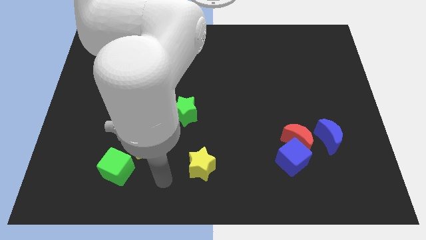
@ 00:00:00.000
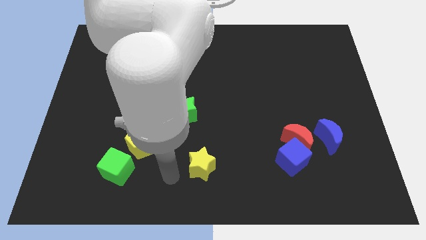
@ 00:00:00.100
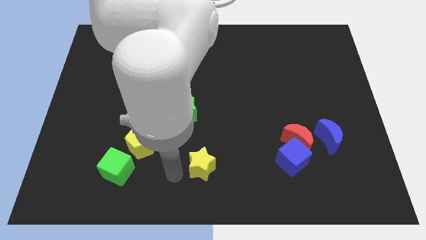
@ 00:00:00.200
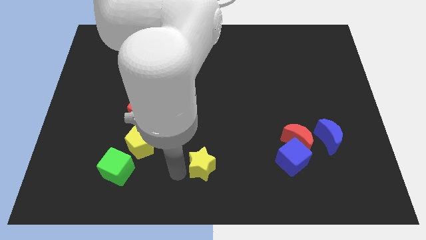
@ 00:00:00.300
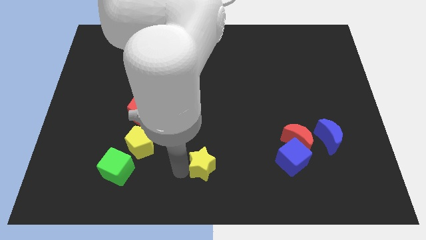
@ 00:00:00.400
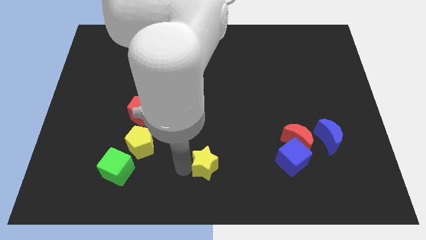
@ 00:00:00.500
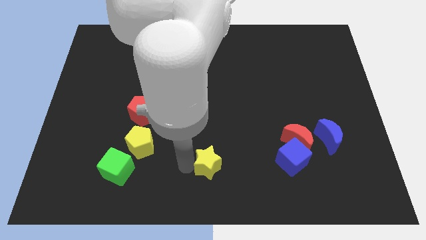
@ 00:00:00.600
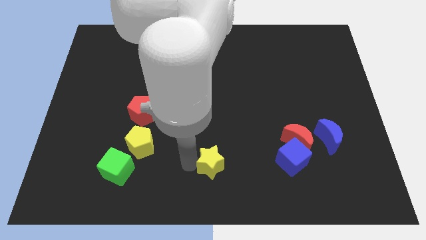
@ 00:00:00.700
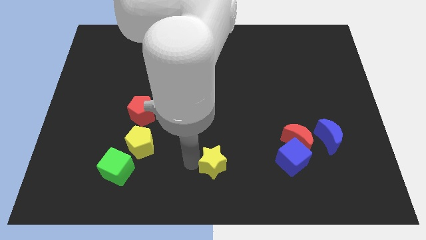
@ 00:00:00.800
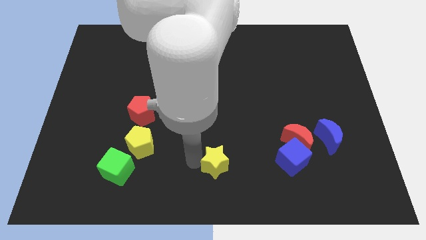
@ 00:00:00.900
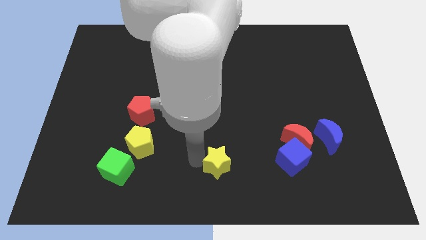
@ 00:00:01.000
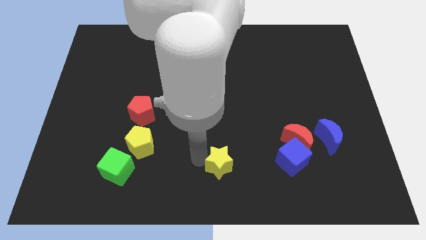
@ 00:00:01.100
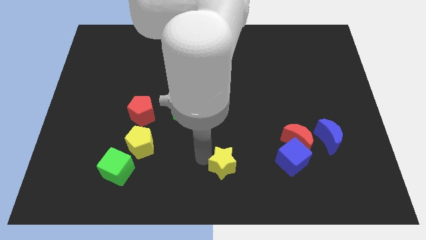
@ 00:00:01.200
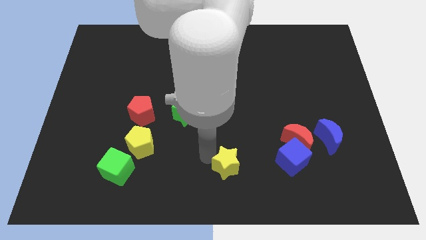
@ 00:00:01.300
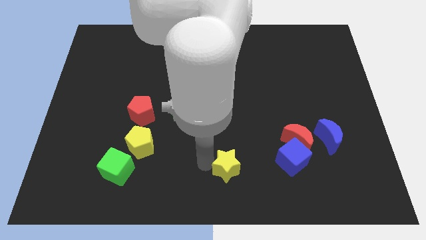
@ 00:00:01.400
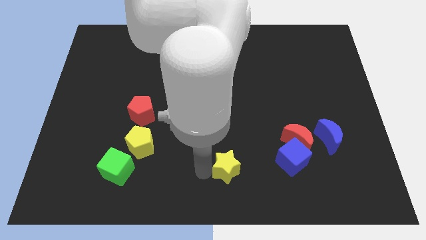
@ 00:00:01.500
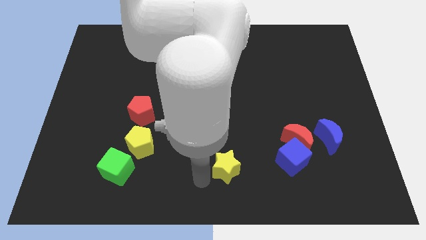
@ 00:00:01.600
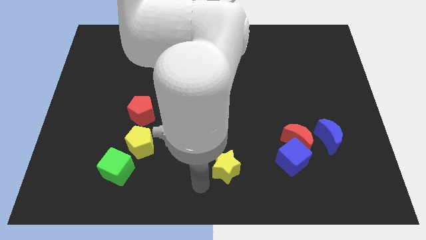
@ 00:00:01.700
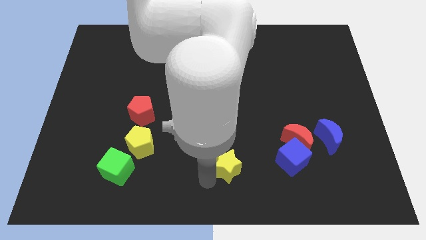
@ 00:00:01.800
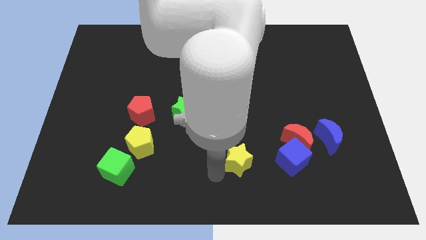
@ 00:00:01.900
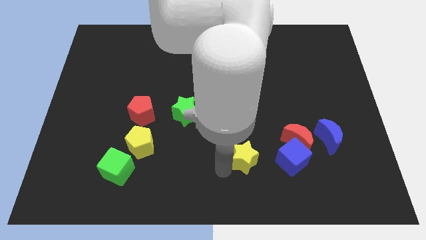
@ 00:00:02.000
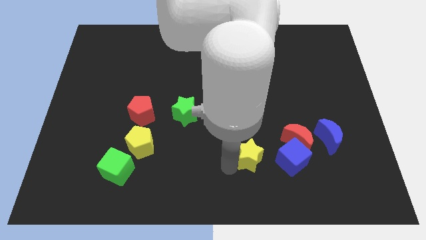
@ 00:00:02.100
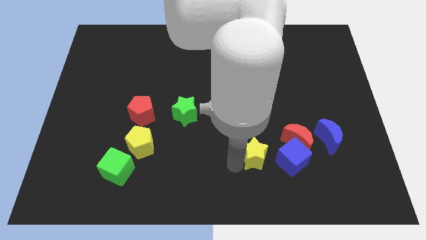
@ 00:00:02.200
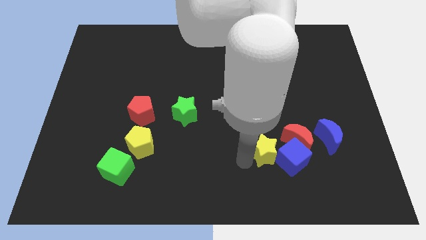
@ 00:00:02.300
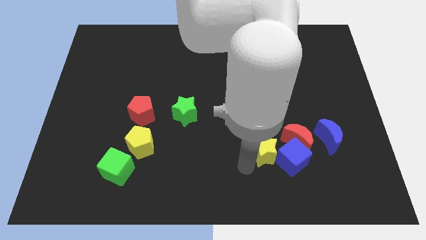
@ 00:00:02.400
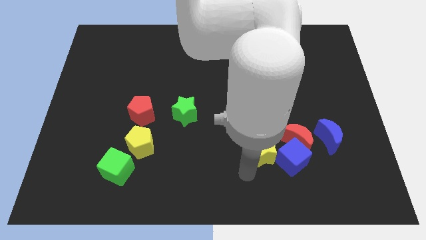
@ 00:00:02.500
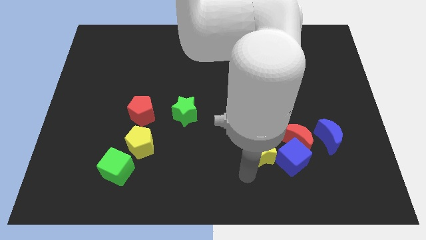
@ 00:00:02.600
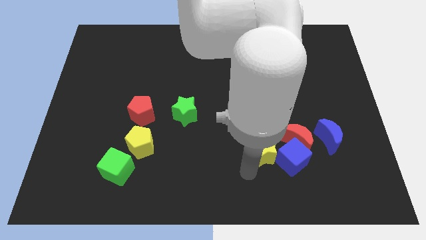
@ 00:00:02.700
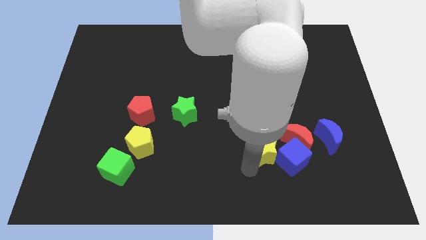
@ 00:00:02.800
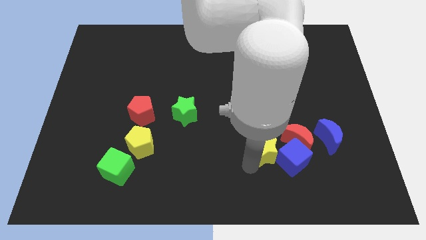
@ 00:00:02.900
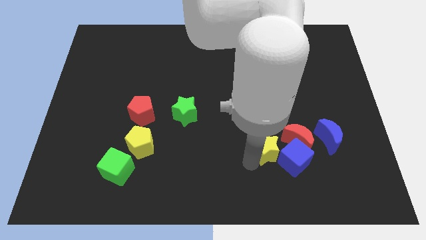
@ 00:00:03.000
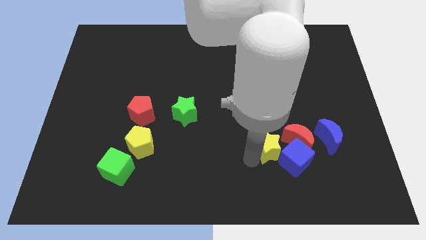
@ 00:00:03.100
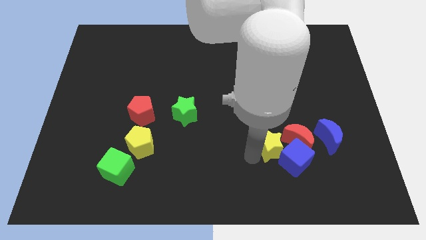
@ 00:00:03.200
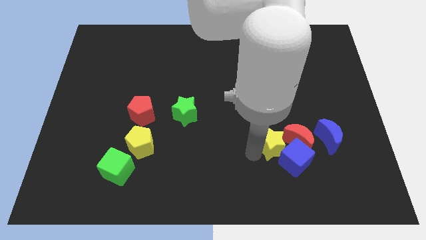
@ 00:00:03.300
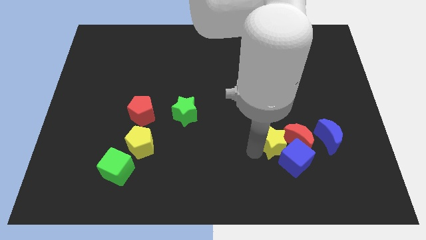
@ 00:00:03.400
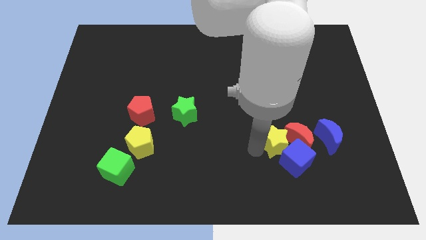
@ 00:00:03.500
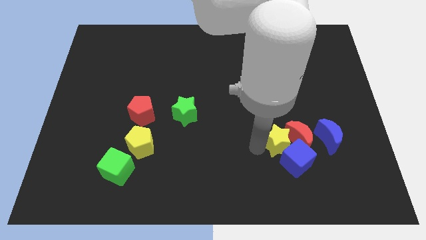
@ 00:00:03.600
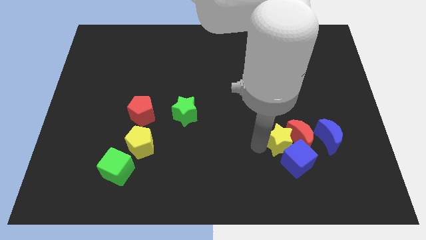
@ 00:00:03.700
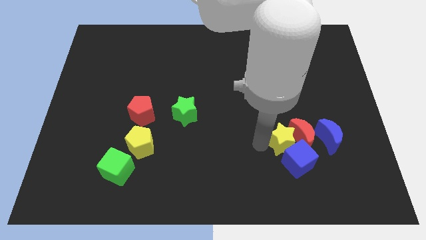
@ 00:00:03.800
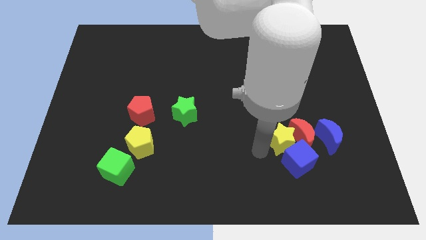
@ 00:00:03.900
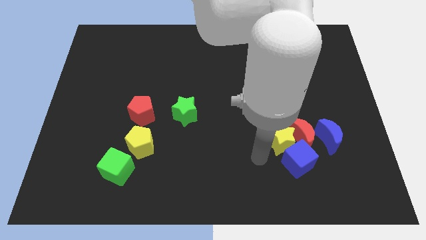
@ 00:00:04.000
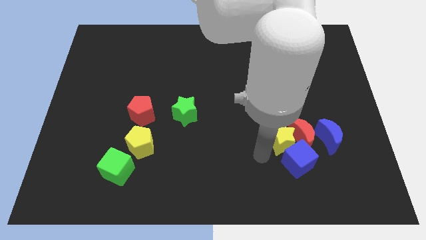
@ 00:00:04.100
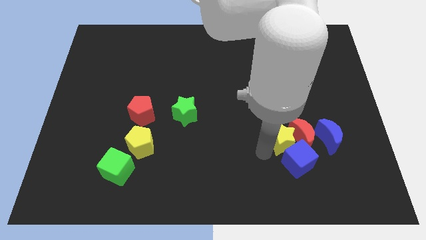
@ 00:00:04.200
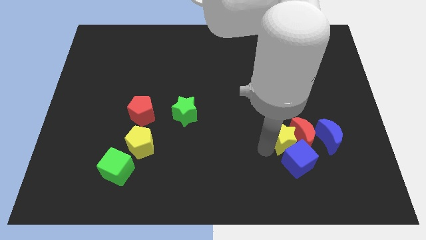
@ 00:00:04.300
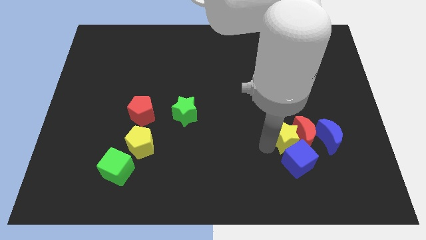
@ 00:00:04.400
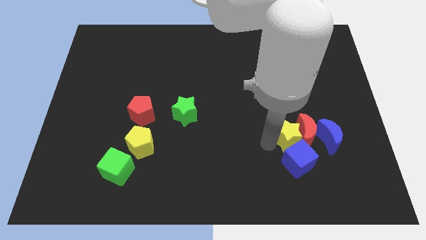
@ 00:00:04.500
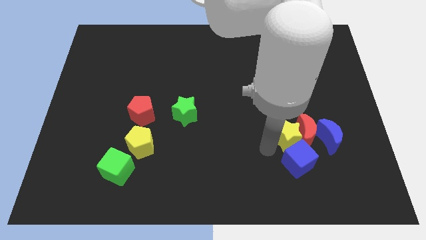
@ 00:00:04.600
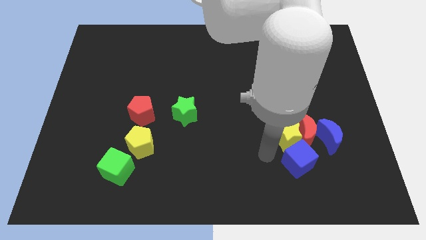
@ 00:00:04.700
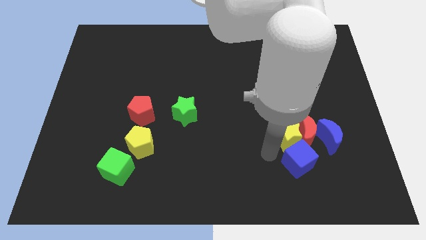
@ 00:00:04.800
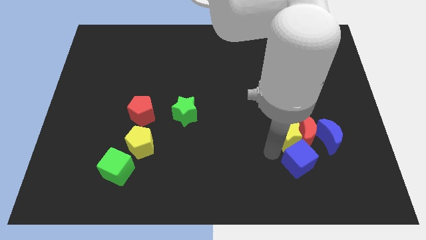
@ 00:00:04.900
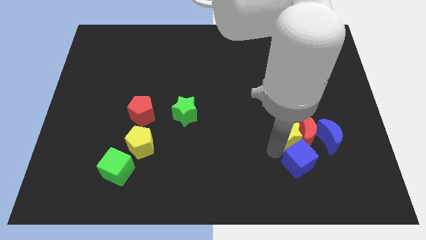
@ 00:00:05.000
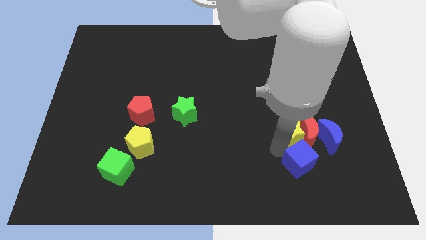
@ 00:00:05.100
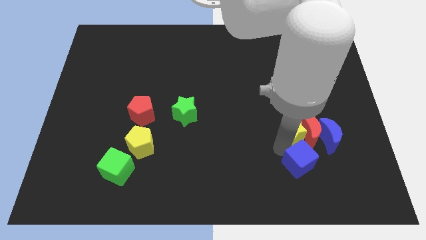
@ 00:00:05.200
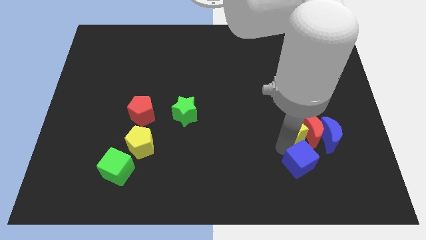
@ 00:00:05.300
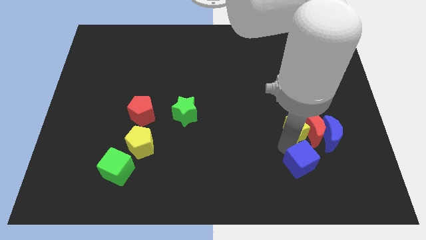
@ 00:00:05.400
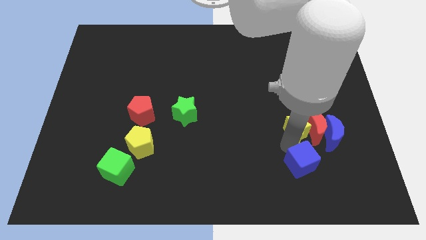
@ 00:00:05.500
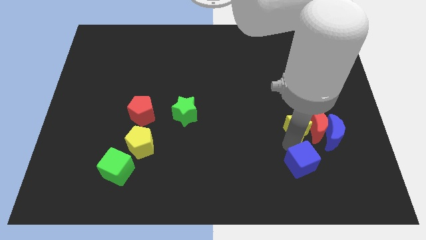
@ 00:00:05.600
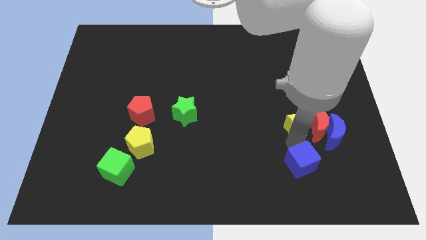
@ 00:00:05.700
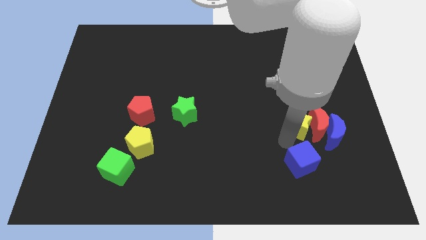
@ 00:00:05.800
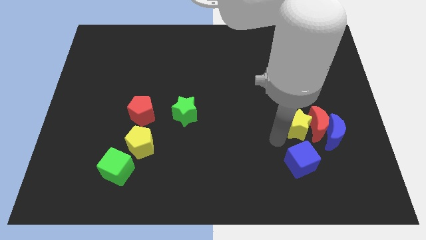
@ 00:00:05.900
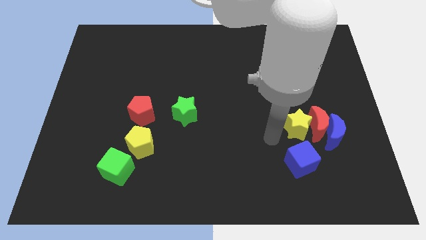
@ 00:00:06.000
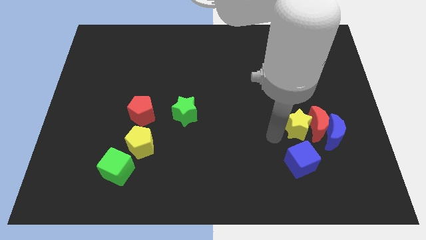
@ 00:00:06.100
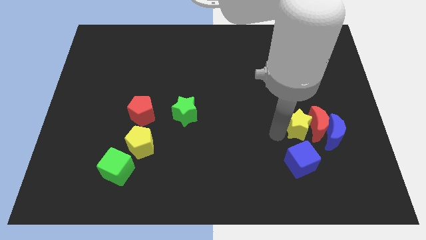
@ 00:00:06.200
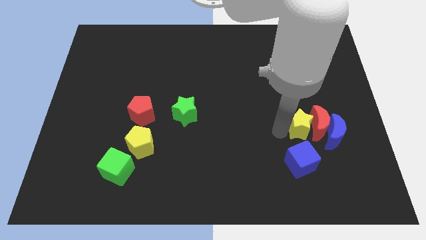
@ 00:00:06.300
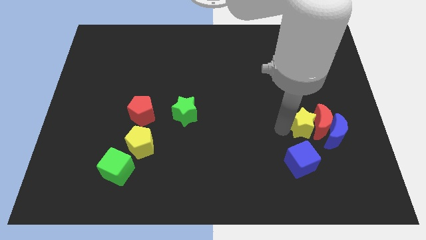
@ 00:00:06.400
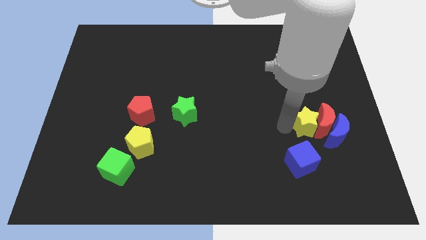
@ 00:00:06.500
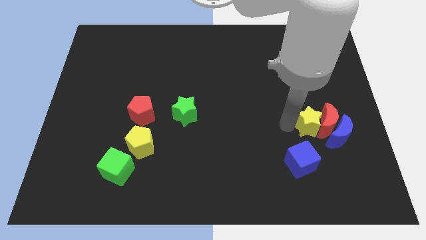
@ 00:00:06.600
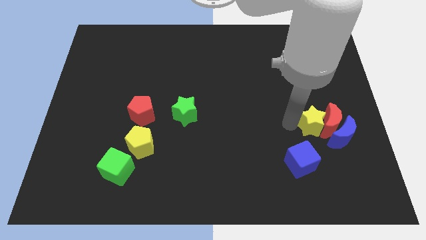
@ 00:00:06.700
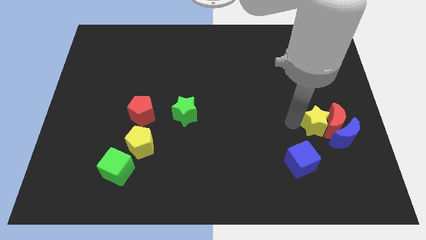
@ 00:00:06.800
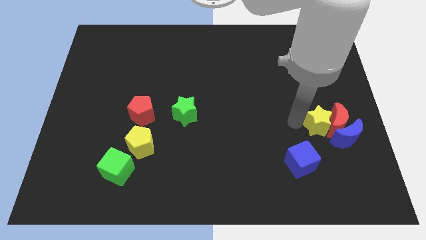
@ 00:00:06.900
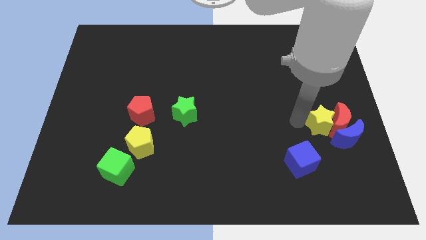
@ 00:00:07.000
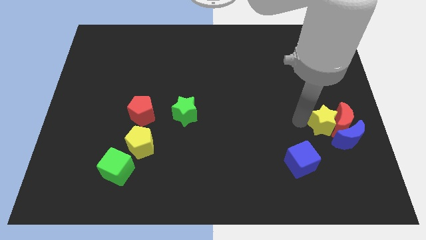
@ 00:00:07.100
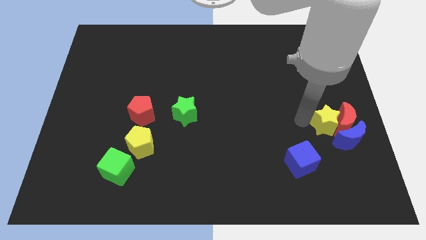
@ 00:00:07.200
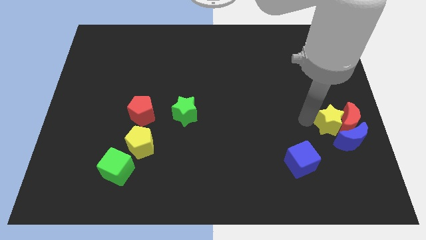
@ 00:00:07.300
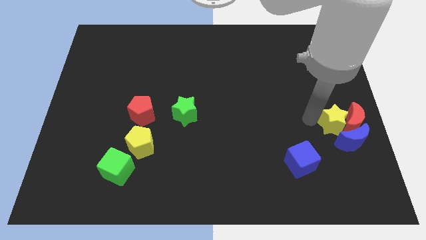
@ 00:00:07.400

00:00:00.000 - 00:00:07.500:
put the yellow star to the right side
